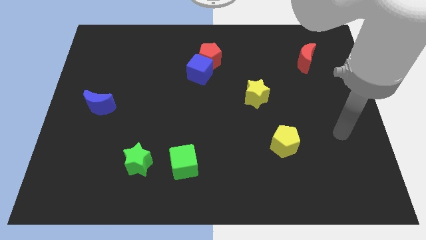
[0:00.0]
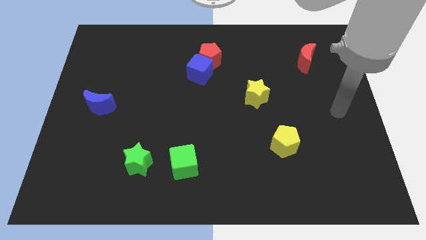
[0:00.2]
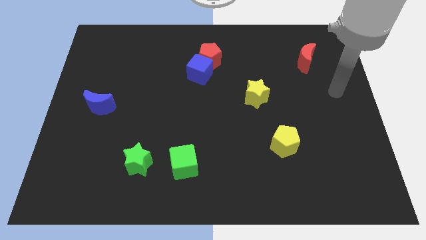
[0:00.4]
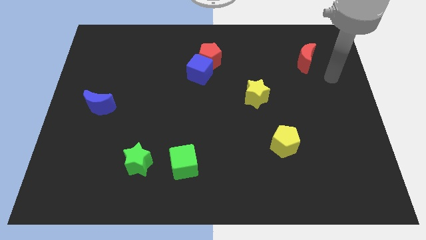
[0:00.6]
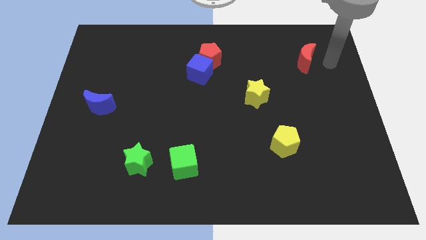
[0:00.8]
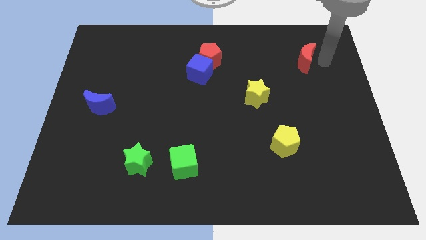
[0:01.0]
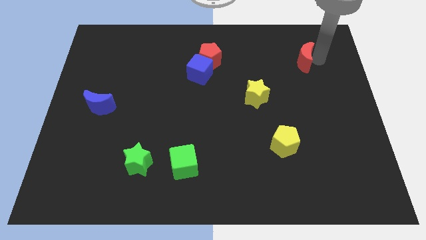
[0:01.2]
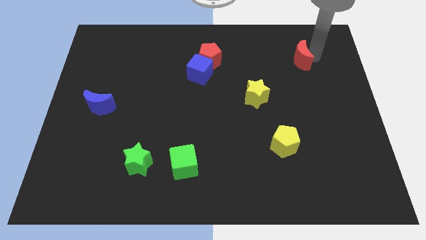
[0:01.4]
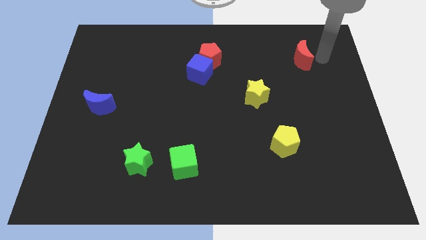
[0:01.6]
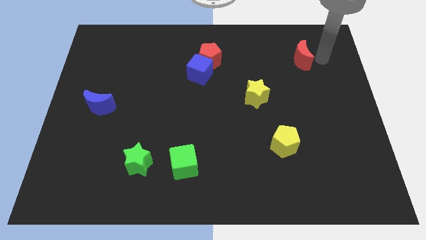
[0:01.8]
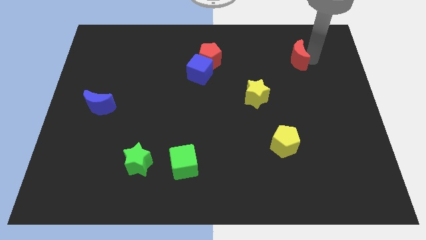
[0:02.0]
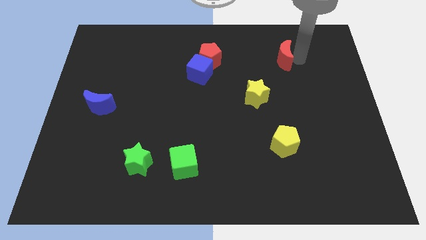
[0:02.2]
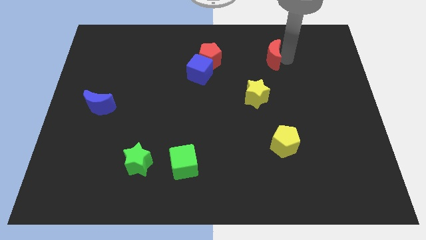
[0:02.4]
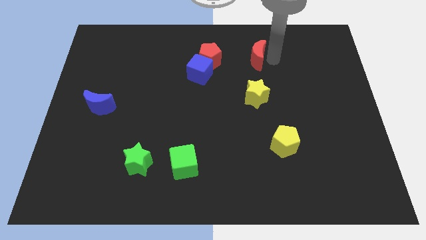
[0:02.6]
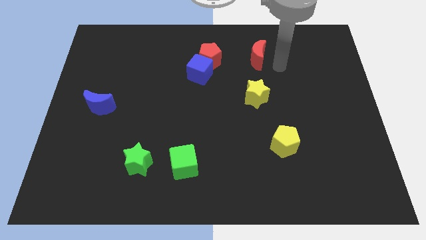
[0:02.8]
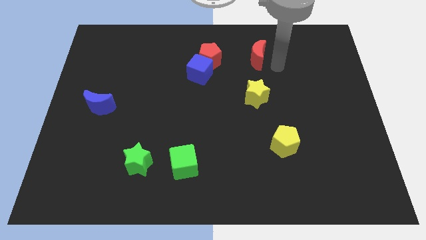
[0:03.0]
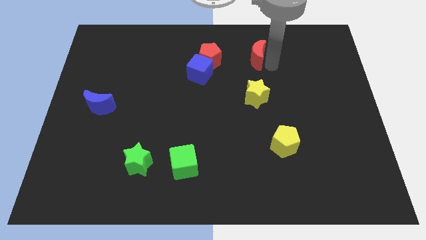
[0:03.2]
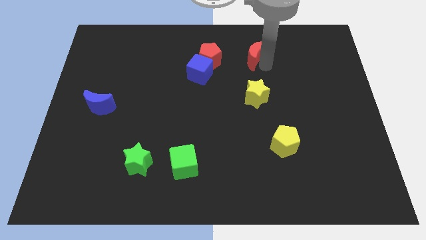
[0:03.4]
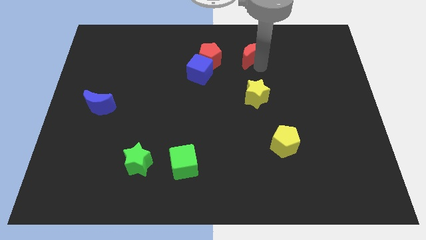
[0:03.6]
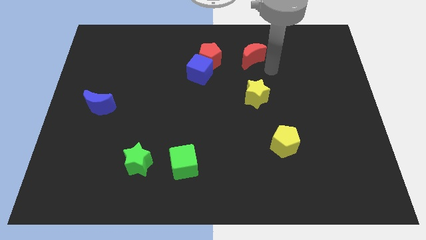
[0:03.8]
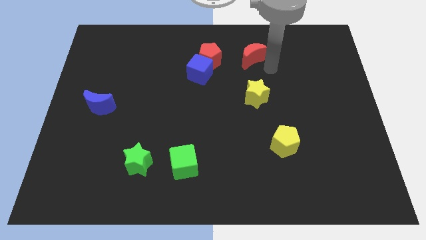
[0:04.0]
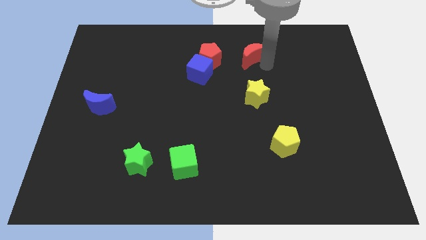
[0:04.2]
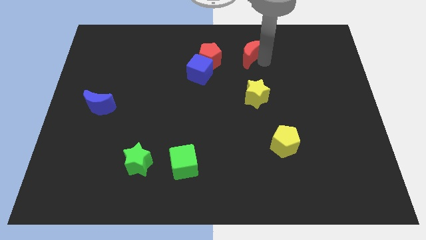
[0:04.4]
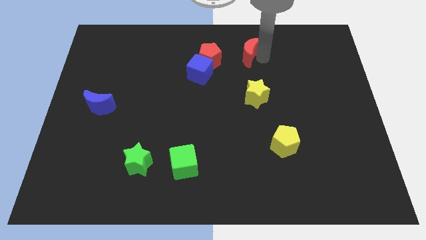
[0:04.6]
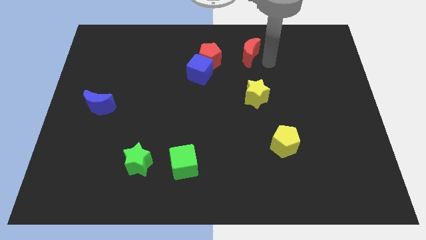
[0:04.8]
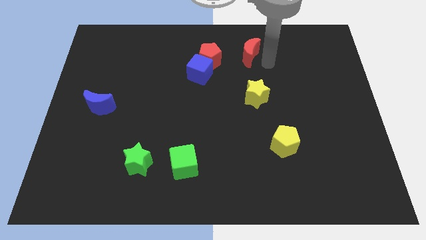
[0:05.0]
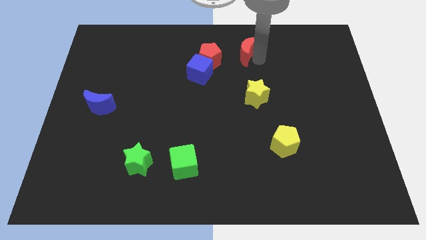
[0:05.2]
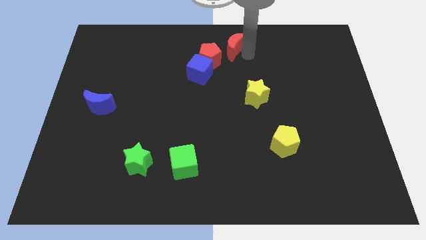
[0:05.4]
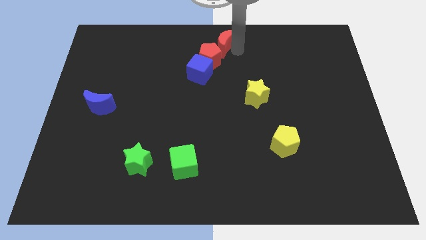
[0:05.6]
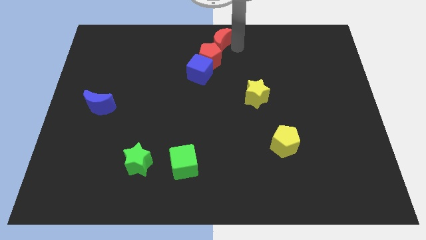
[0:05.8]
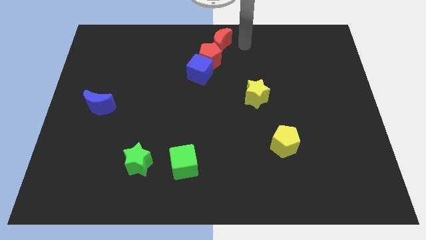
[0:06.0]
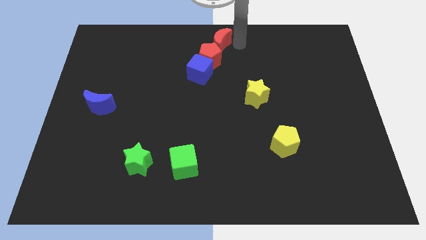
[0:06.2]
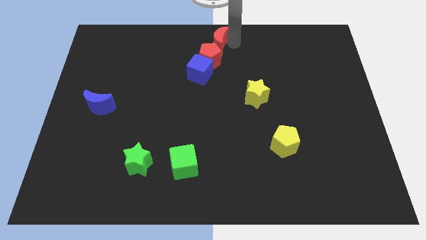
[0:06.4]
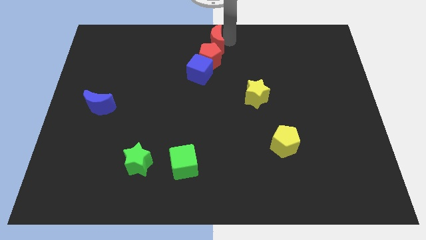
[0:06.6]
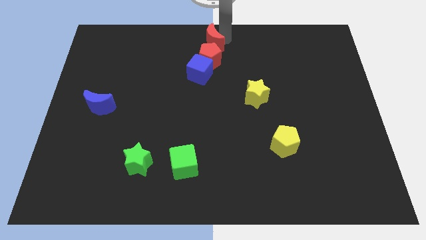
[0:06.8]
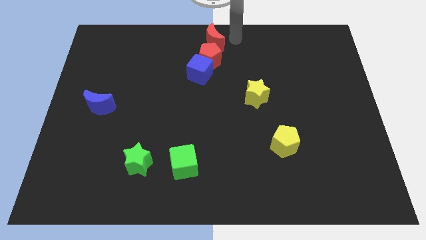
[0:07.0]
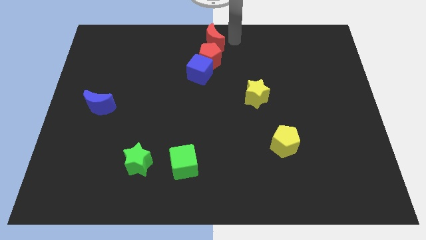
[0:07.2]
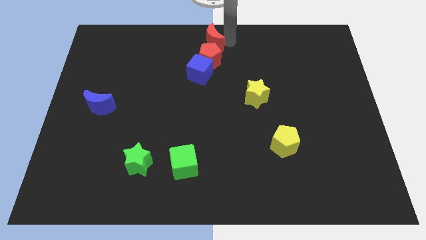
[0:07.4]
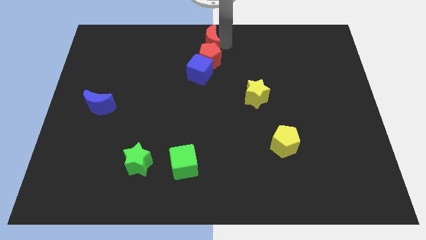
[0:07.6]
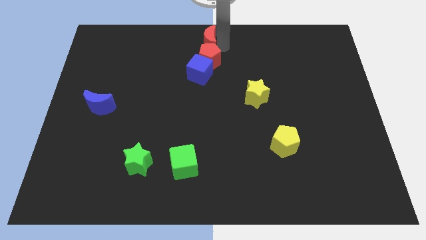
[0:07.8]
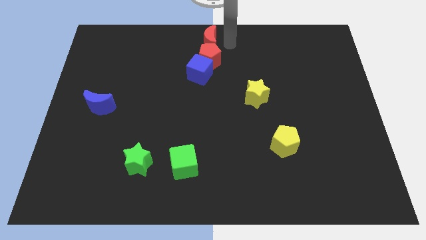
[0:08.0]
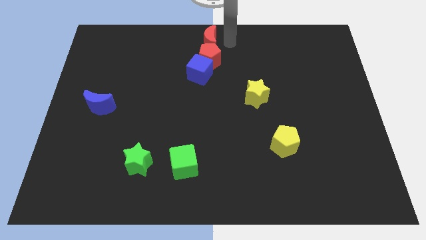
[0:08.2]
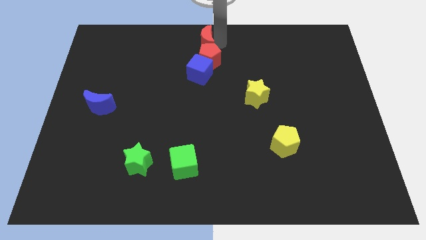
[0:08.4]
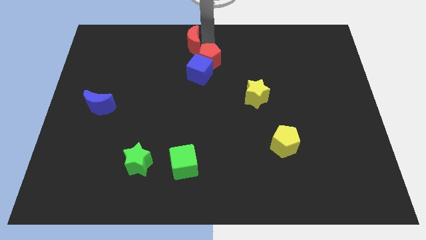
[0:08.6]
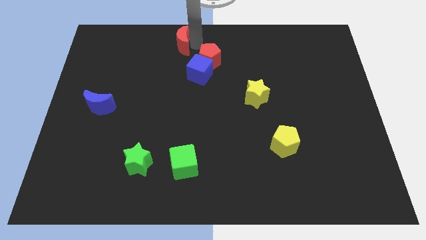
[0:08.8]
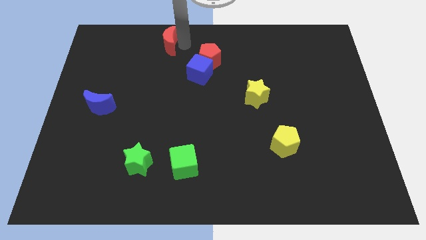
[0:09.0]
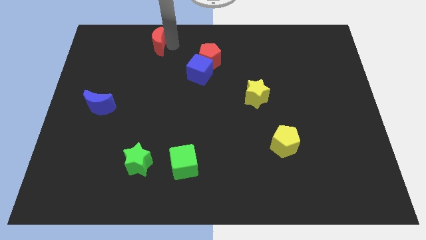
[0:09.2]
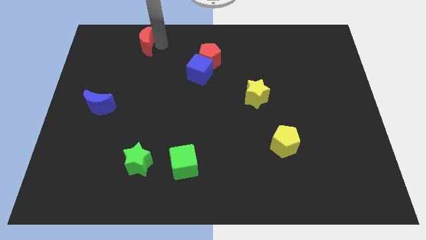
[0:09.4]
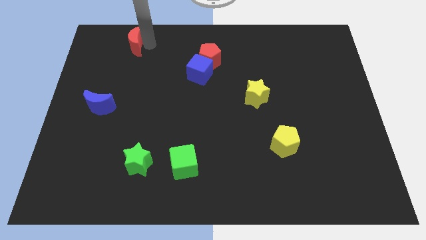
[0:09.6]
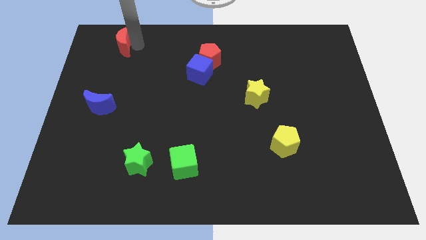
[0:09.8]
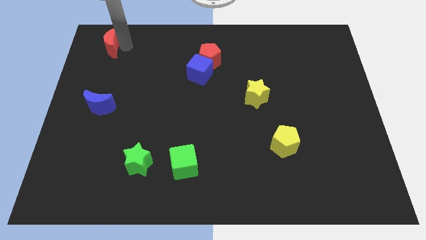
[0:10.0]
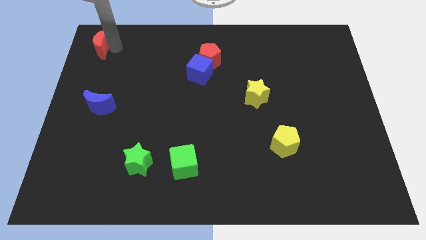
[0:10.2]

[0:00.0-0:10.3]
put the red moon to the top left of the board

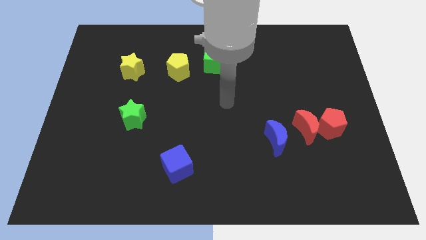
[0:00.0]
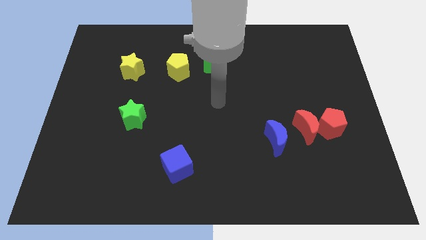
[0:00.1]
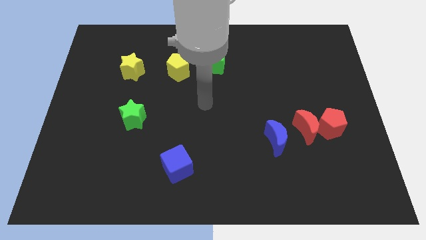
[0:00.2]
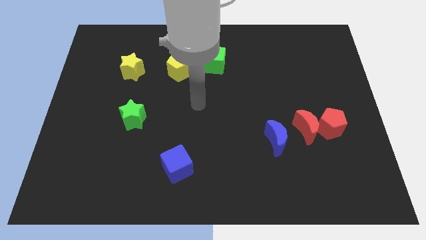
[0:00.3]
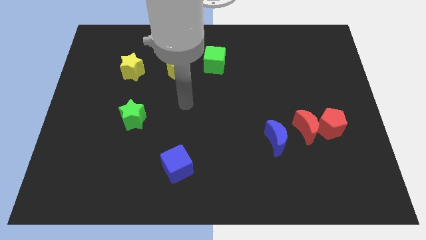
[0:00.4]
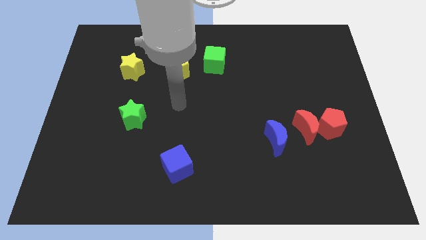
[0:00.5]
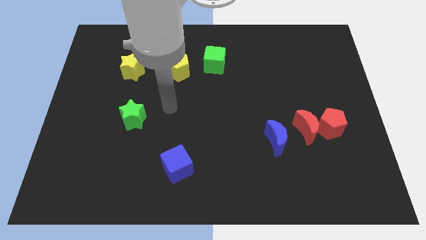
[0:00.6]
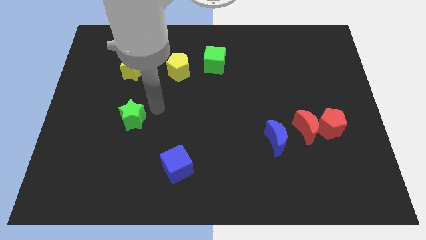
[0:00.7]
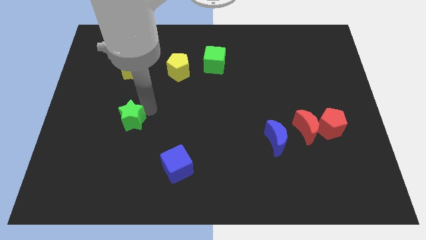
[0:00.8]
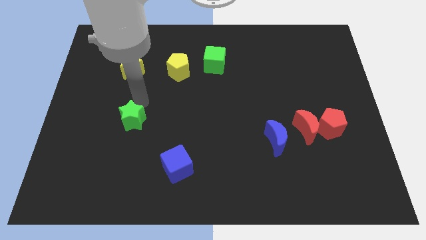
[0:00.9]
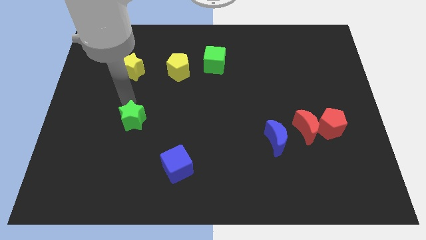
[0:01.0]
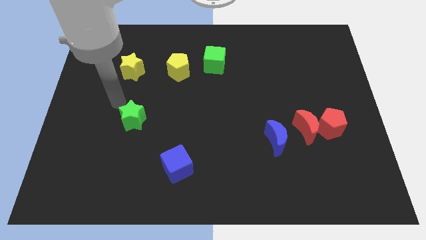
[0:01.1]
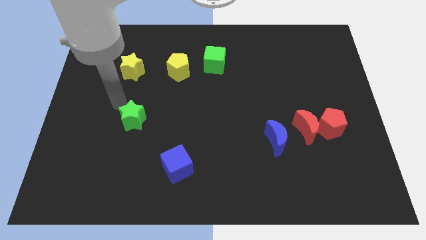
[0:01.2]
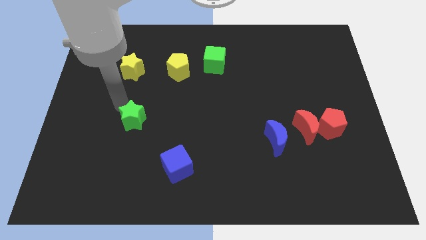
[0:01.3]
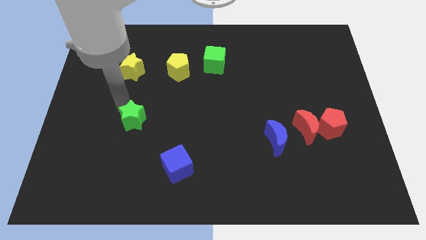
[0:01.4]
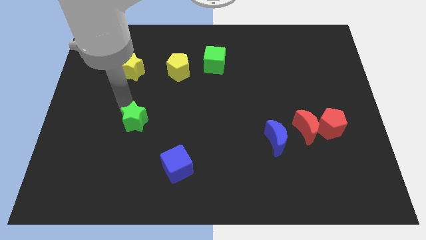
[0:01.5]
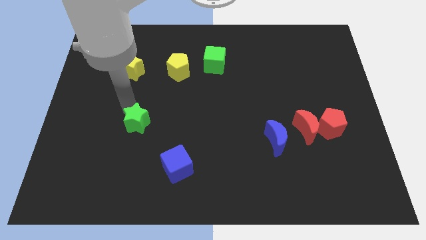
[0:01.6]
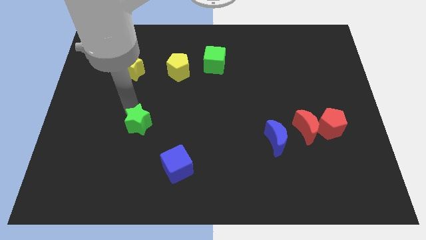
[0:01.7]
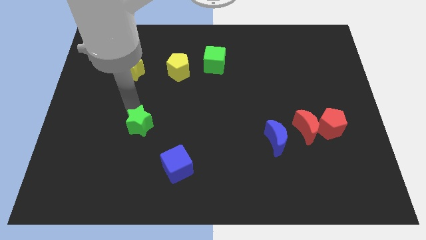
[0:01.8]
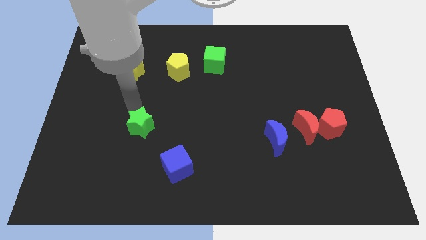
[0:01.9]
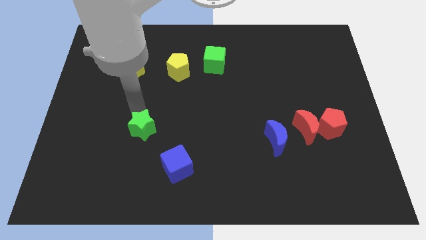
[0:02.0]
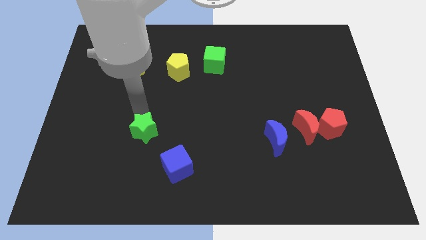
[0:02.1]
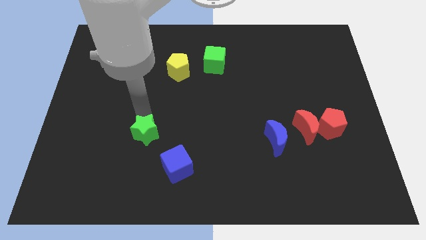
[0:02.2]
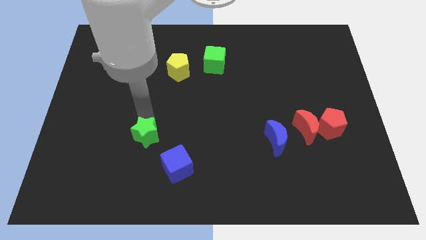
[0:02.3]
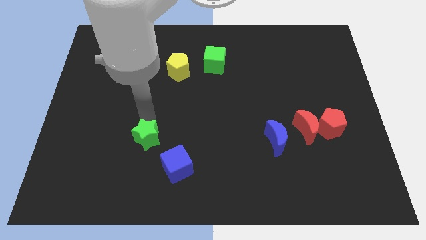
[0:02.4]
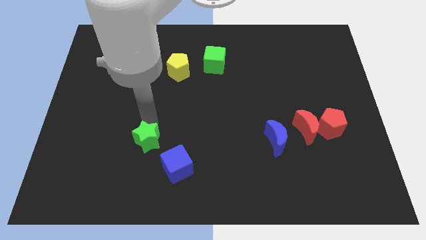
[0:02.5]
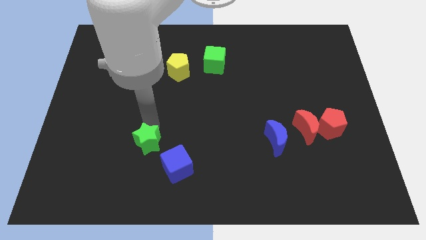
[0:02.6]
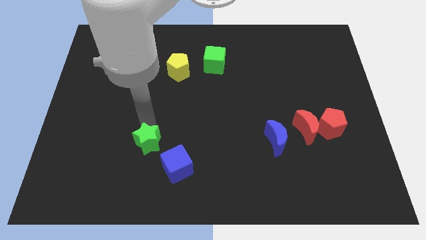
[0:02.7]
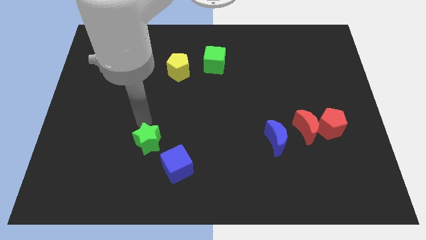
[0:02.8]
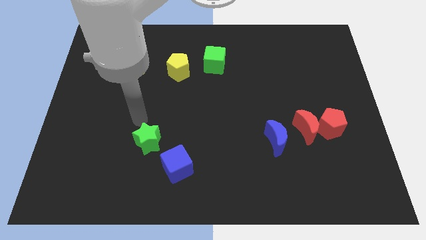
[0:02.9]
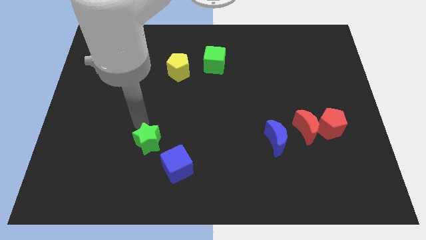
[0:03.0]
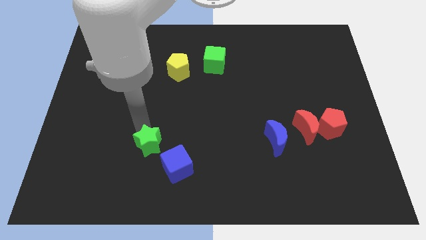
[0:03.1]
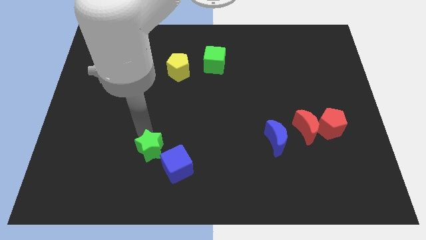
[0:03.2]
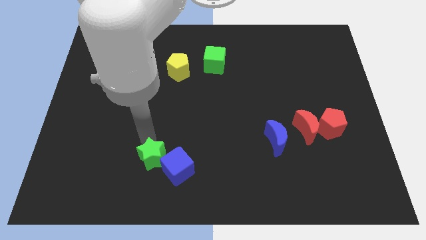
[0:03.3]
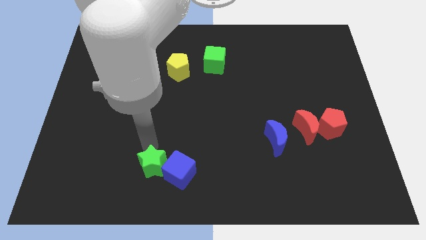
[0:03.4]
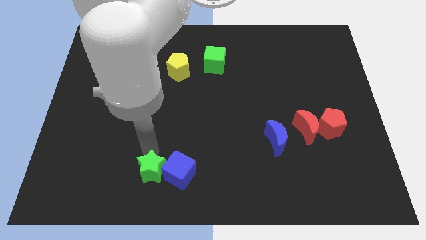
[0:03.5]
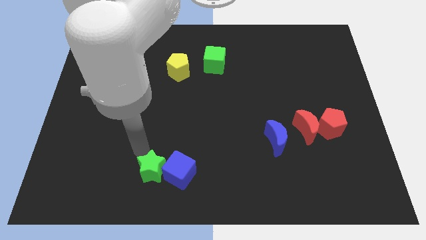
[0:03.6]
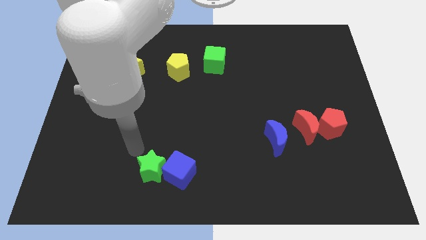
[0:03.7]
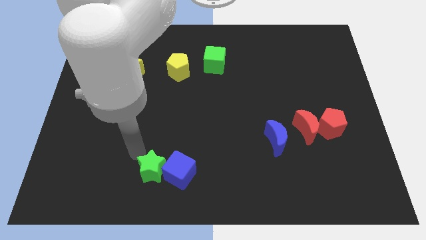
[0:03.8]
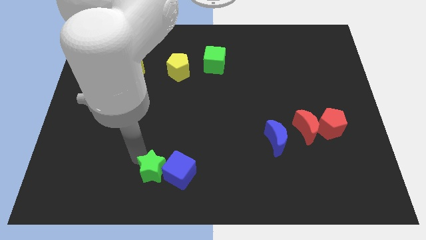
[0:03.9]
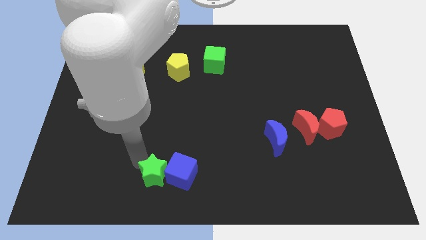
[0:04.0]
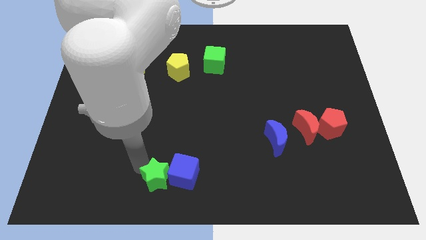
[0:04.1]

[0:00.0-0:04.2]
put the green star to the bottom
